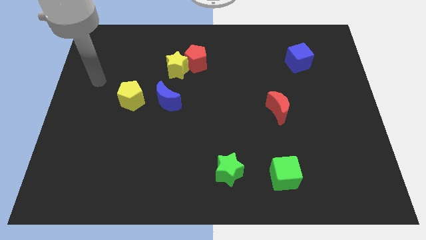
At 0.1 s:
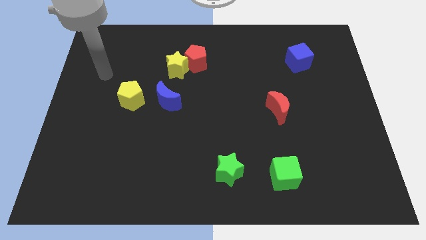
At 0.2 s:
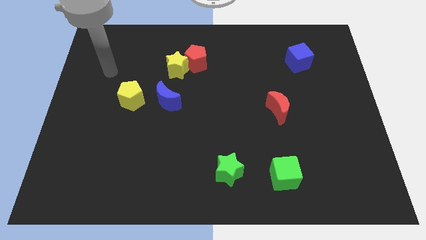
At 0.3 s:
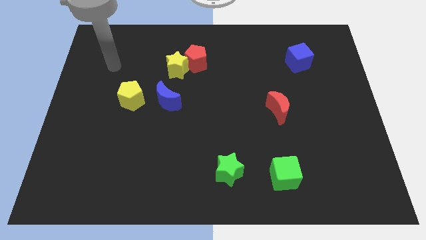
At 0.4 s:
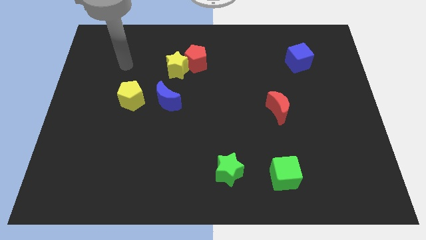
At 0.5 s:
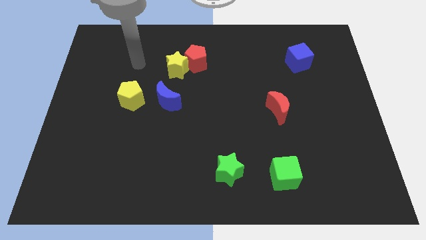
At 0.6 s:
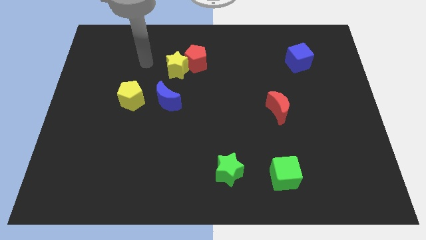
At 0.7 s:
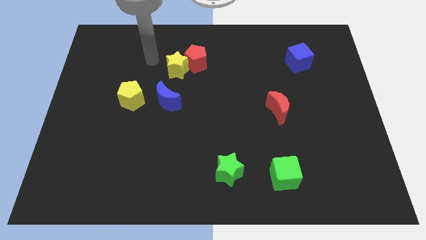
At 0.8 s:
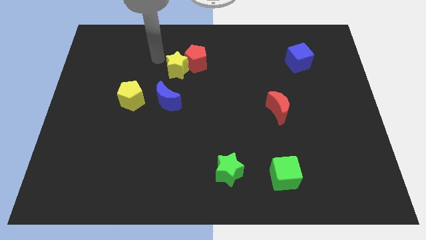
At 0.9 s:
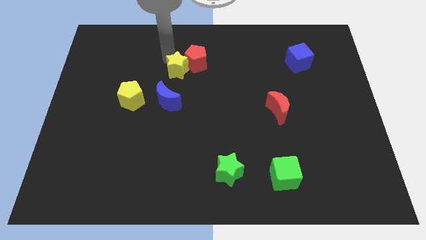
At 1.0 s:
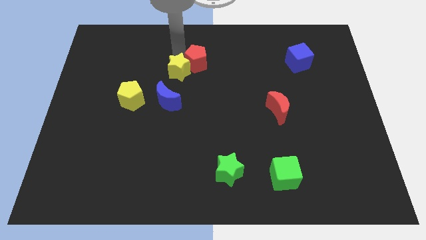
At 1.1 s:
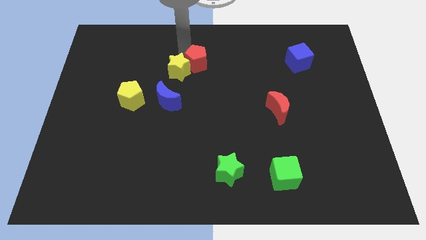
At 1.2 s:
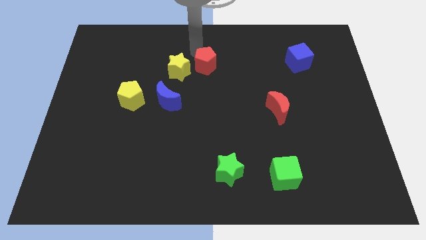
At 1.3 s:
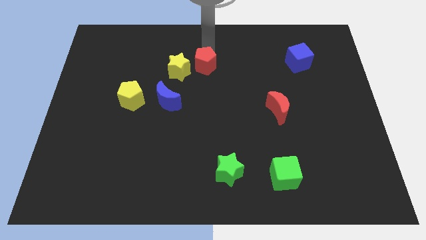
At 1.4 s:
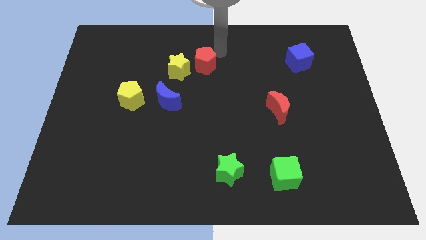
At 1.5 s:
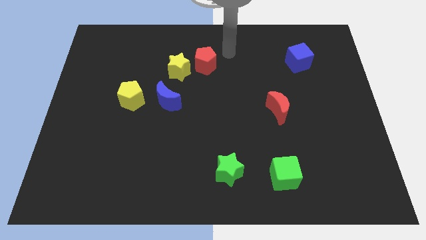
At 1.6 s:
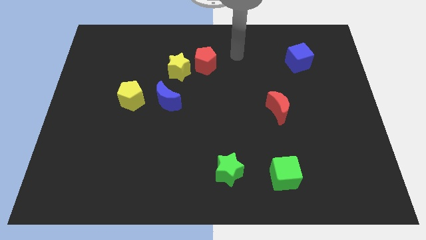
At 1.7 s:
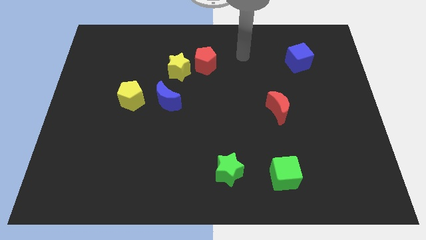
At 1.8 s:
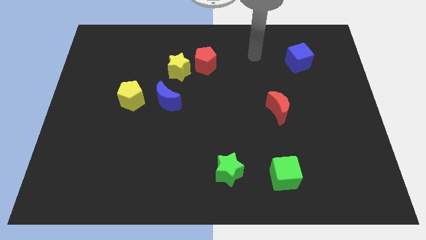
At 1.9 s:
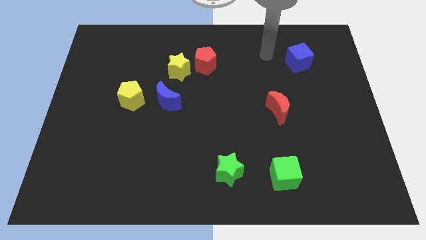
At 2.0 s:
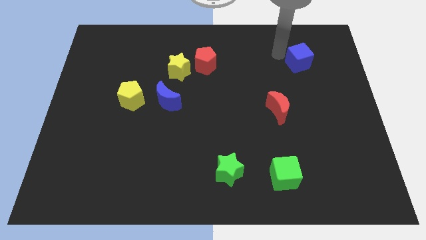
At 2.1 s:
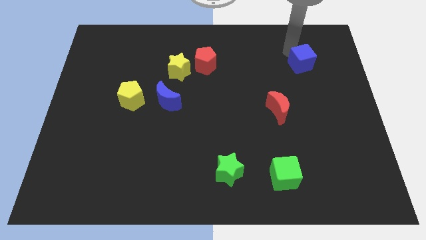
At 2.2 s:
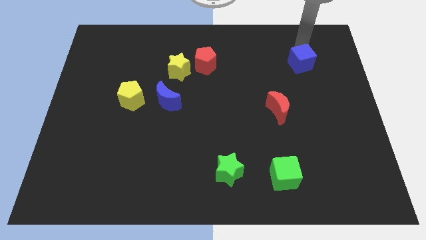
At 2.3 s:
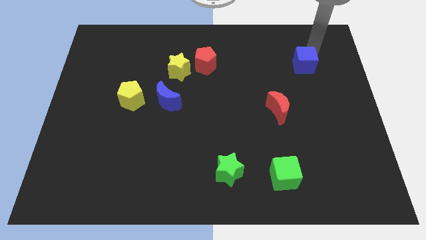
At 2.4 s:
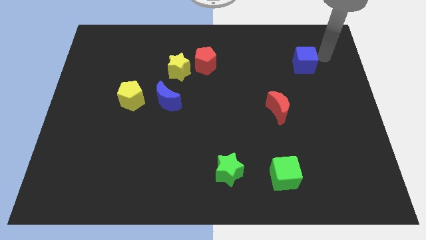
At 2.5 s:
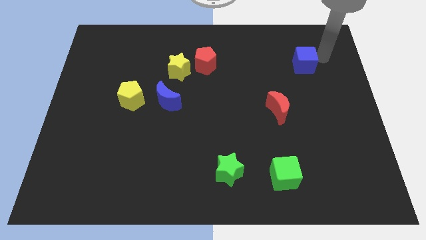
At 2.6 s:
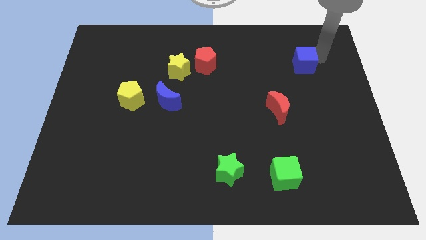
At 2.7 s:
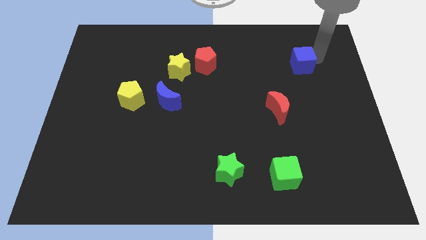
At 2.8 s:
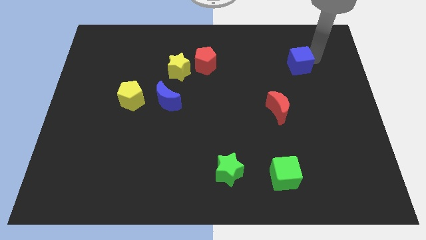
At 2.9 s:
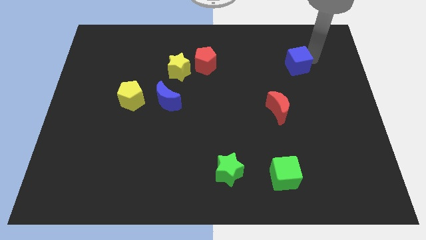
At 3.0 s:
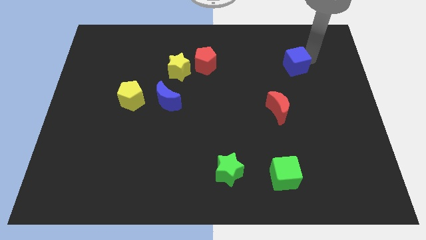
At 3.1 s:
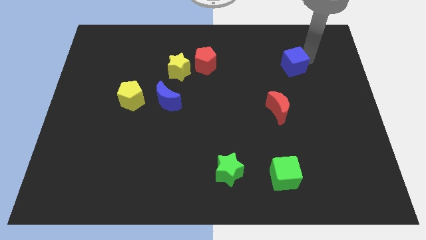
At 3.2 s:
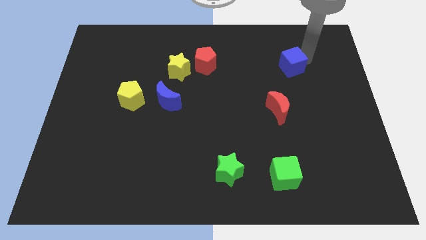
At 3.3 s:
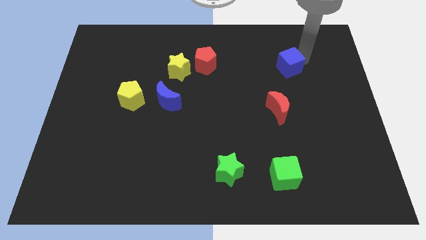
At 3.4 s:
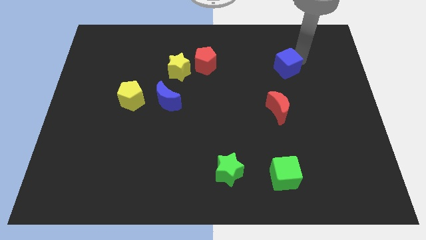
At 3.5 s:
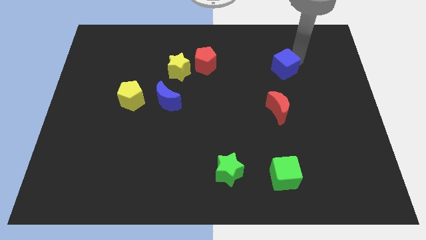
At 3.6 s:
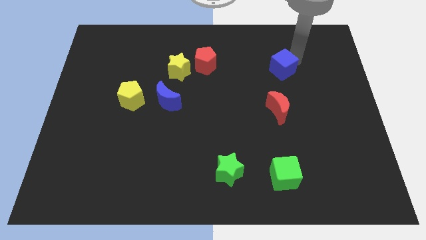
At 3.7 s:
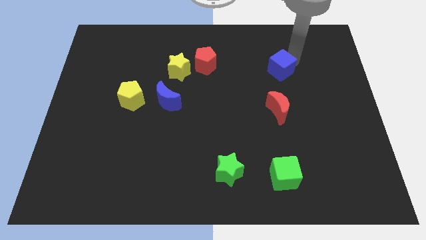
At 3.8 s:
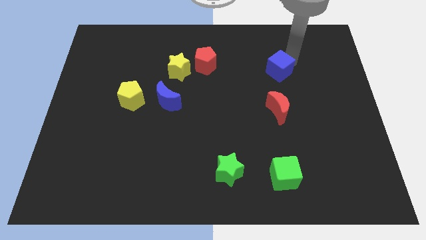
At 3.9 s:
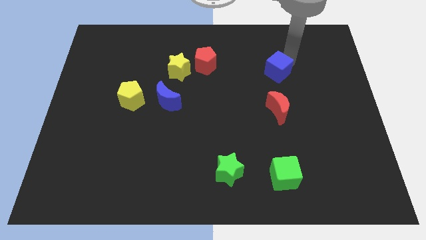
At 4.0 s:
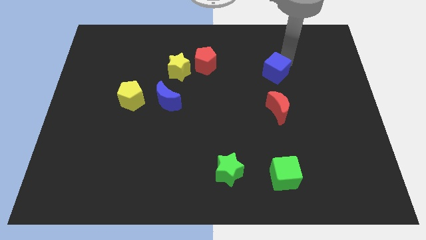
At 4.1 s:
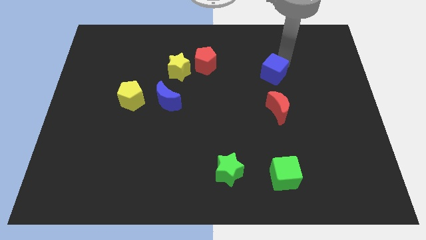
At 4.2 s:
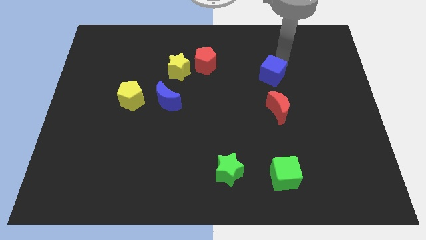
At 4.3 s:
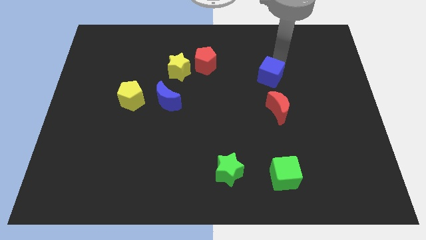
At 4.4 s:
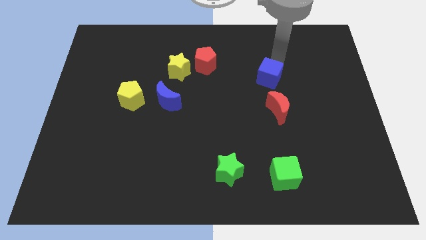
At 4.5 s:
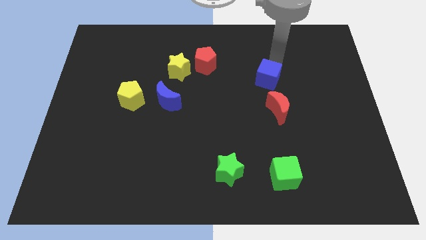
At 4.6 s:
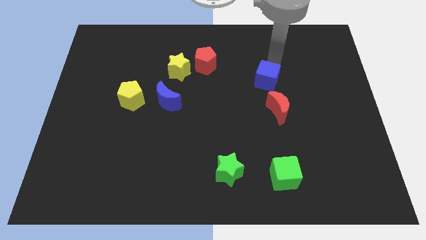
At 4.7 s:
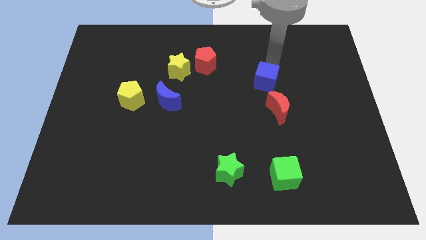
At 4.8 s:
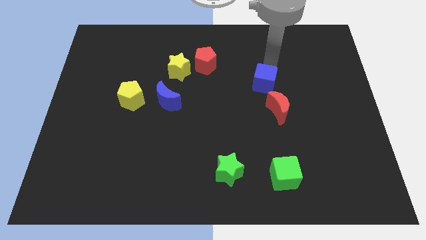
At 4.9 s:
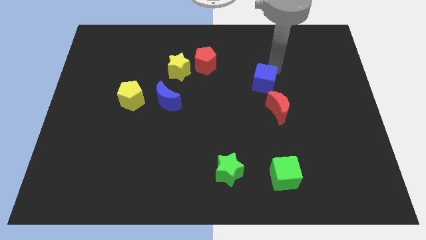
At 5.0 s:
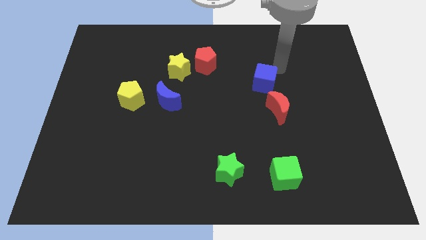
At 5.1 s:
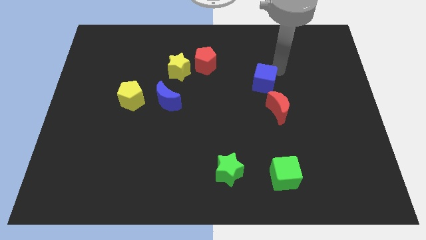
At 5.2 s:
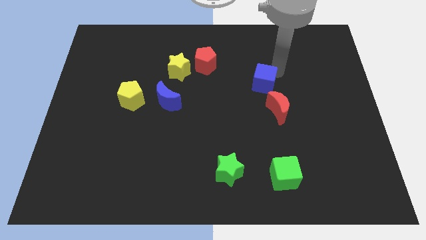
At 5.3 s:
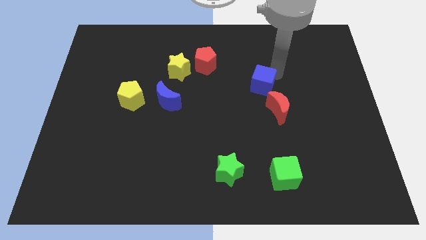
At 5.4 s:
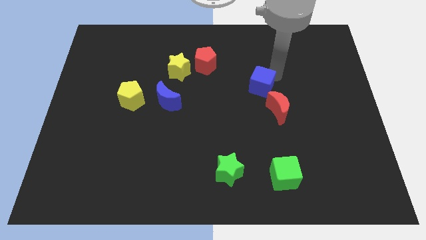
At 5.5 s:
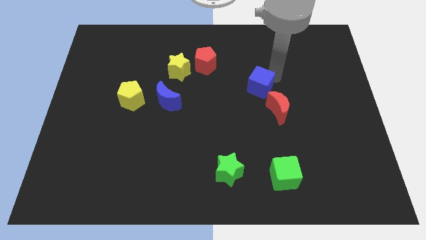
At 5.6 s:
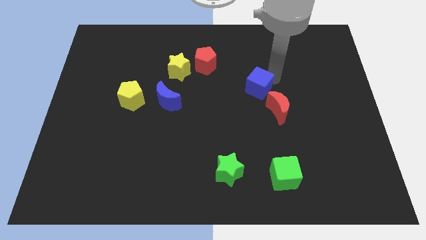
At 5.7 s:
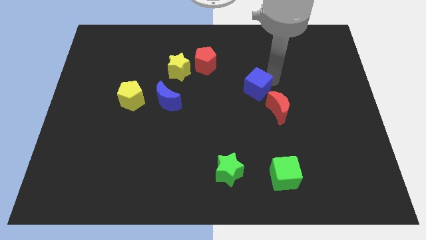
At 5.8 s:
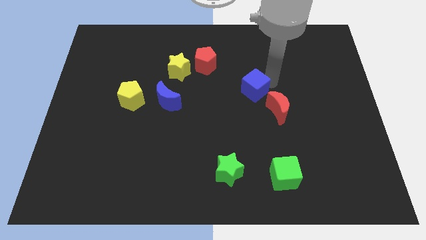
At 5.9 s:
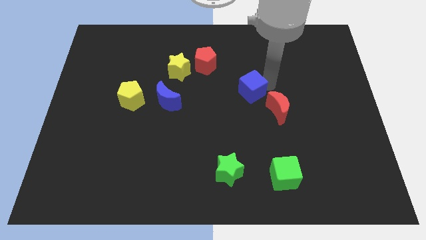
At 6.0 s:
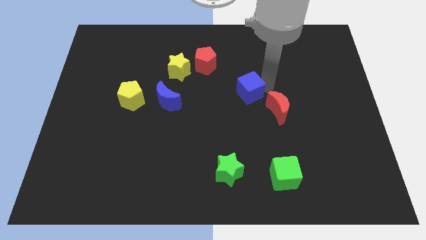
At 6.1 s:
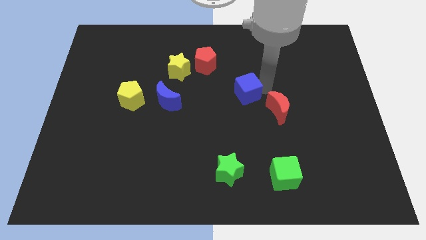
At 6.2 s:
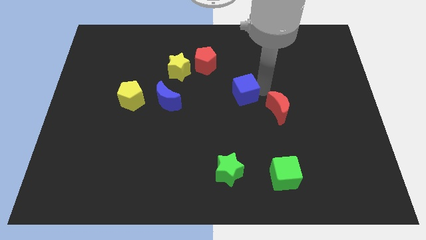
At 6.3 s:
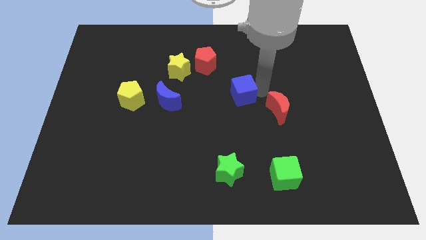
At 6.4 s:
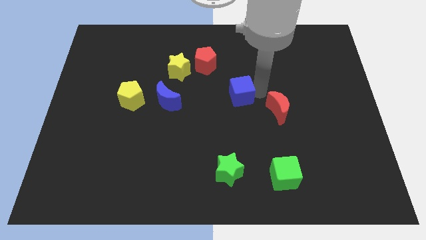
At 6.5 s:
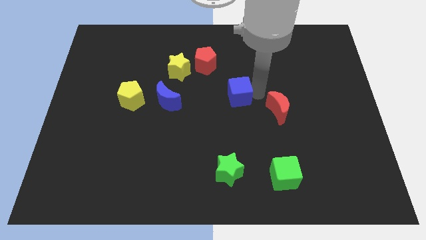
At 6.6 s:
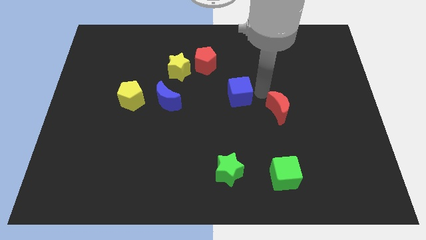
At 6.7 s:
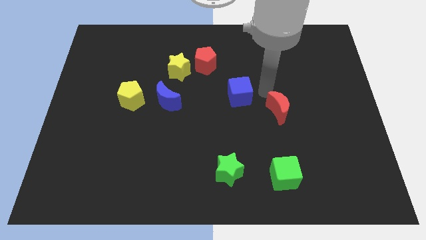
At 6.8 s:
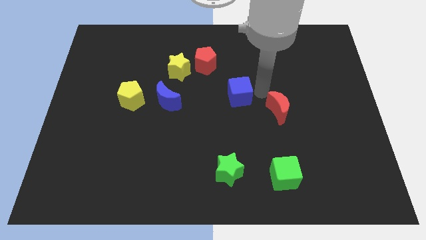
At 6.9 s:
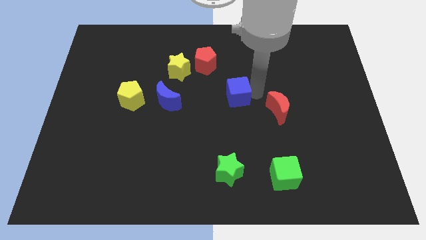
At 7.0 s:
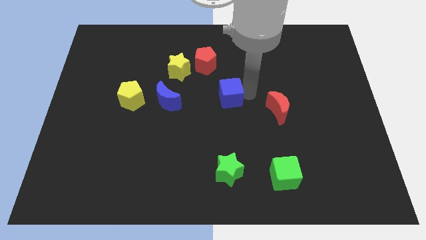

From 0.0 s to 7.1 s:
put the blue cube just right of the blue moon
